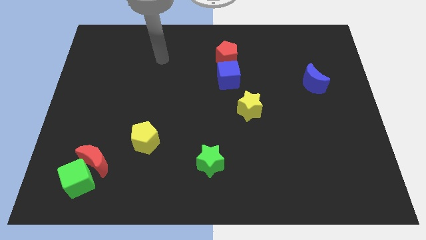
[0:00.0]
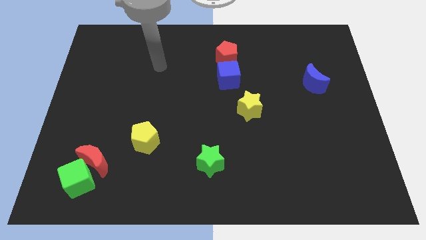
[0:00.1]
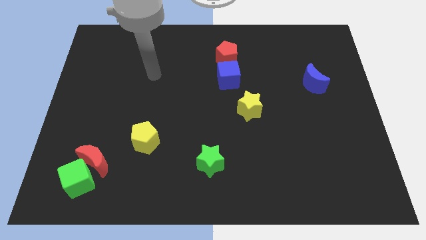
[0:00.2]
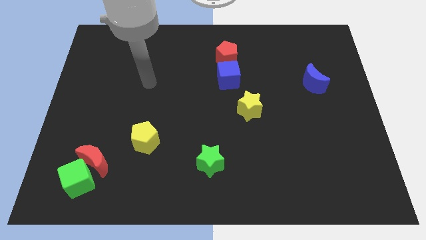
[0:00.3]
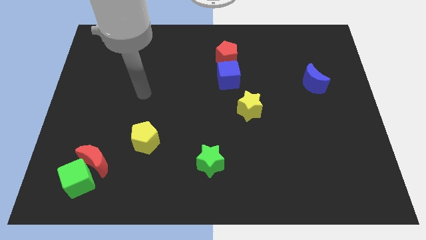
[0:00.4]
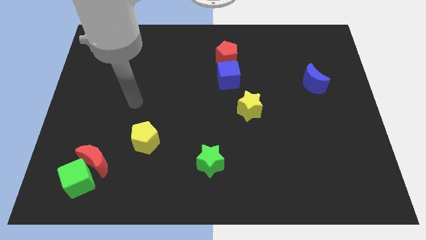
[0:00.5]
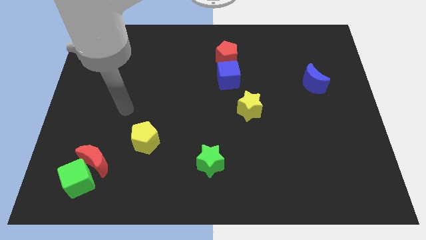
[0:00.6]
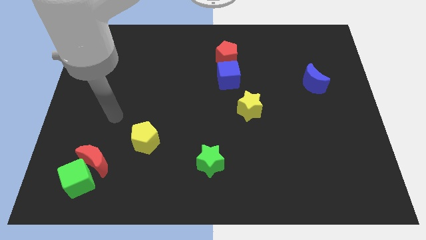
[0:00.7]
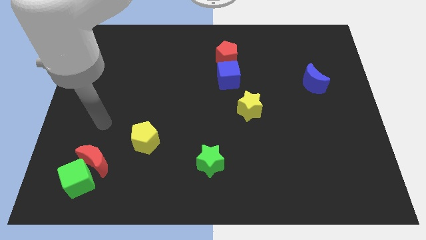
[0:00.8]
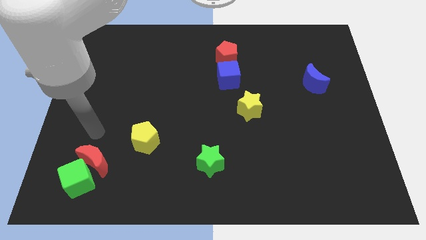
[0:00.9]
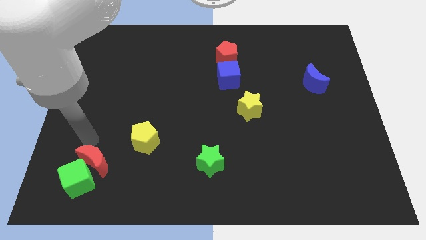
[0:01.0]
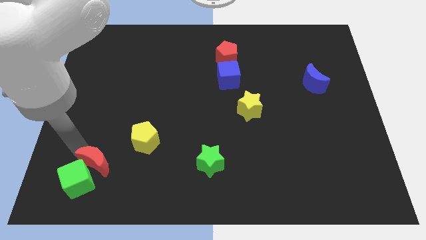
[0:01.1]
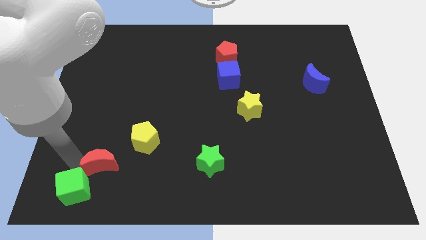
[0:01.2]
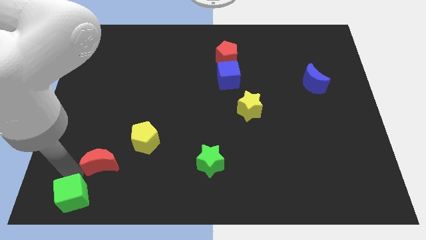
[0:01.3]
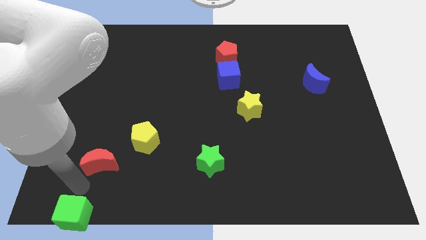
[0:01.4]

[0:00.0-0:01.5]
separate the red moon from the green cube

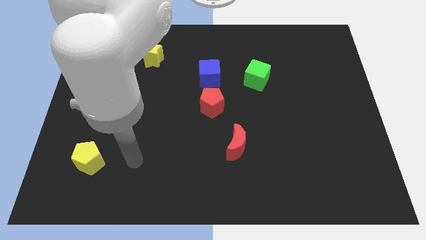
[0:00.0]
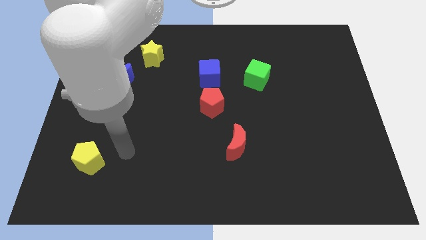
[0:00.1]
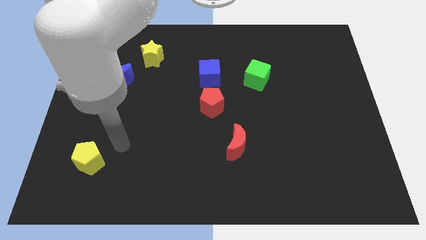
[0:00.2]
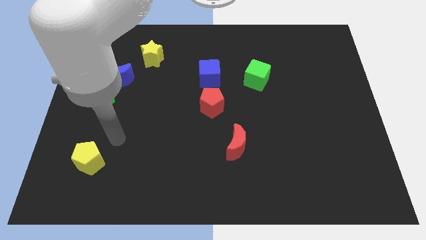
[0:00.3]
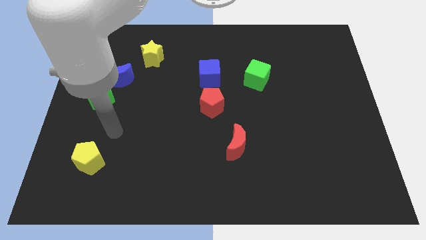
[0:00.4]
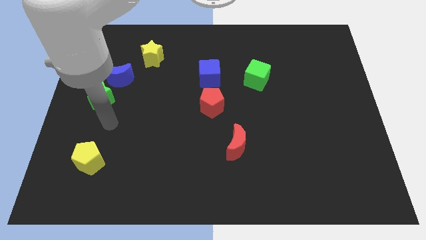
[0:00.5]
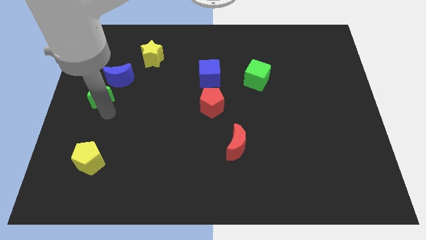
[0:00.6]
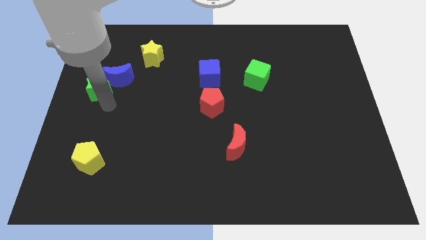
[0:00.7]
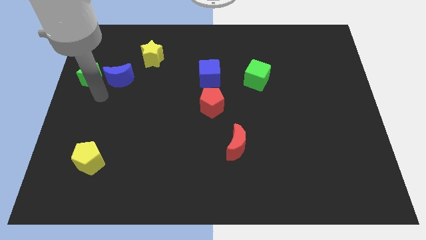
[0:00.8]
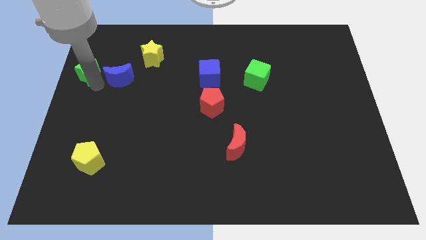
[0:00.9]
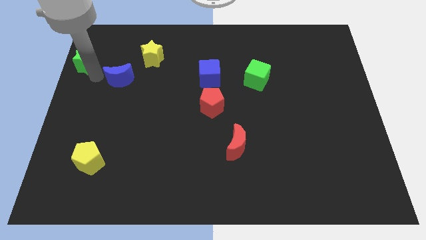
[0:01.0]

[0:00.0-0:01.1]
separate the blue moon from the green star

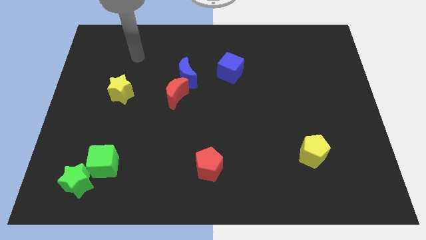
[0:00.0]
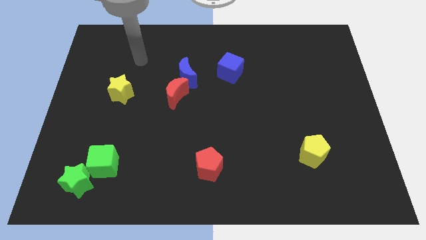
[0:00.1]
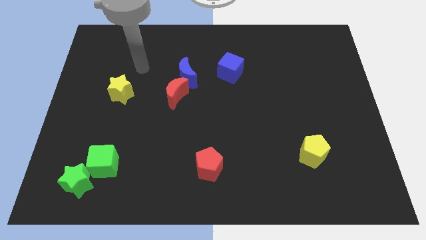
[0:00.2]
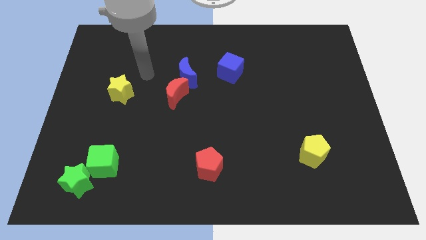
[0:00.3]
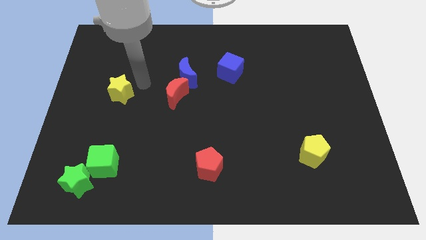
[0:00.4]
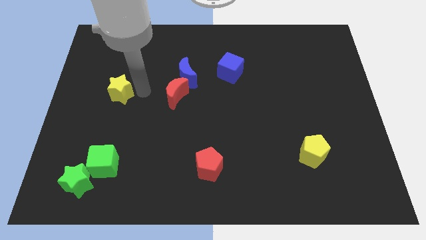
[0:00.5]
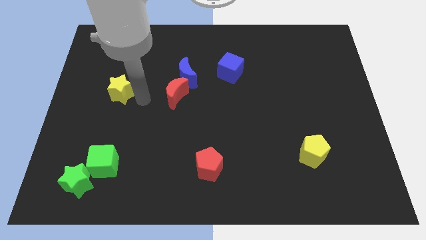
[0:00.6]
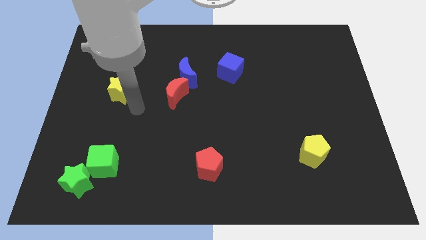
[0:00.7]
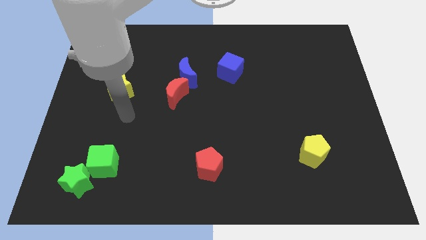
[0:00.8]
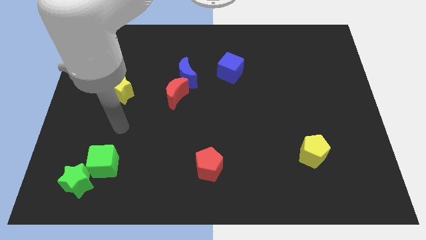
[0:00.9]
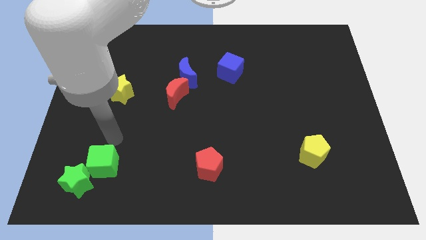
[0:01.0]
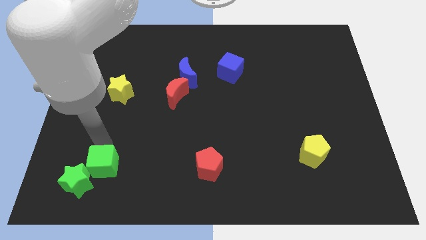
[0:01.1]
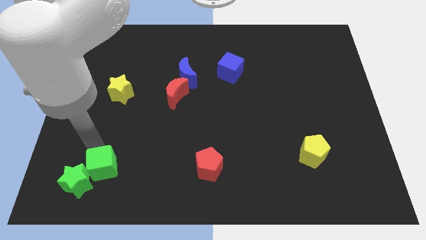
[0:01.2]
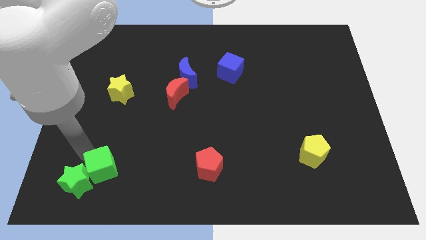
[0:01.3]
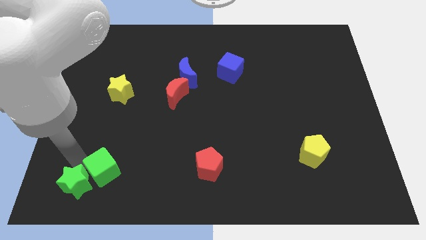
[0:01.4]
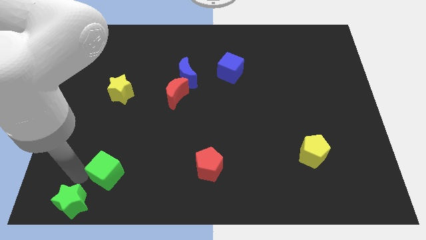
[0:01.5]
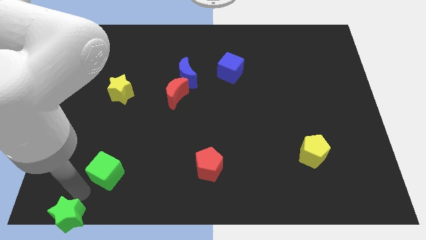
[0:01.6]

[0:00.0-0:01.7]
pull the green cube apart from the green star

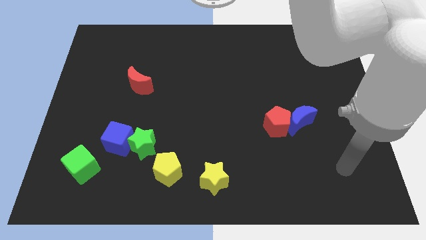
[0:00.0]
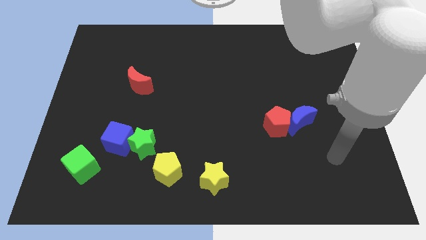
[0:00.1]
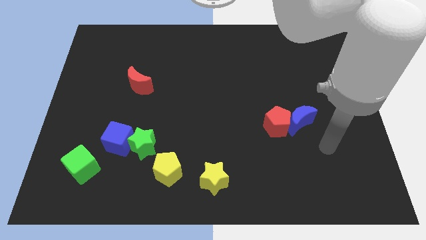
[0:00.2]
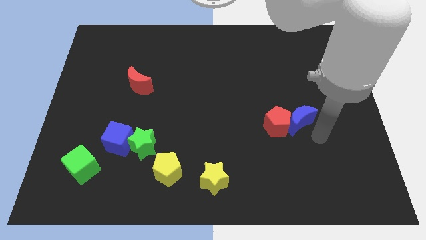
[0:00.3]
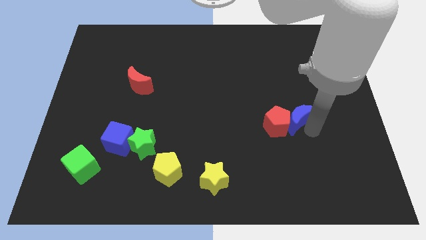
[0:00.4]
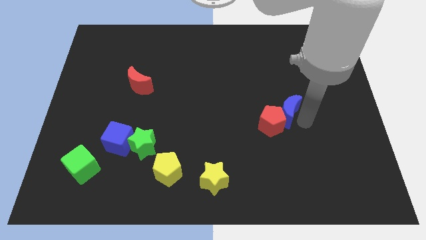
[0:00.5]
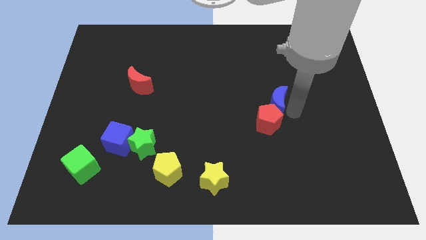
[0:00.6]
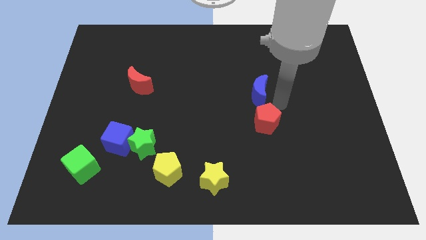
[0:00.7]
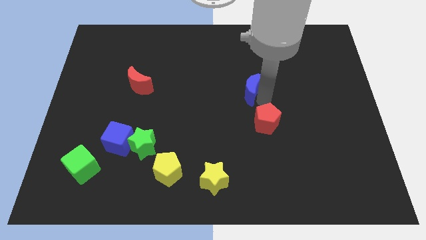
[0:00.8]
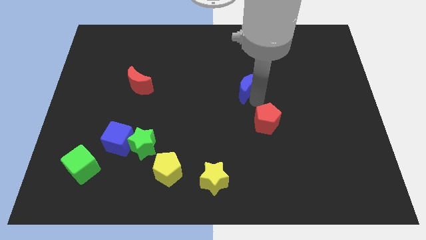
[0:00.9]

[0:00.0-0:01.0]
pull the red pentagon apart from the blue moon

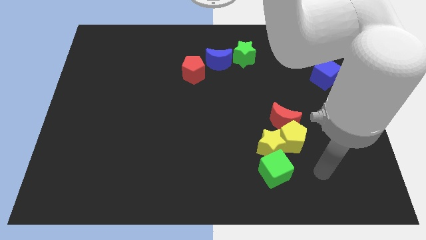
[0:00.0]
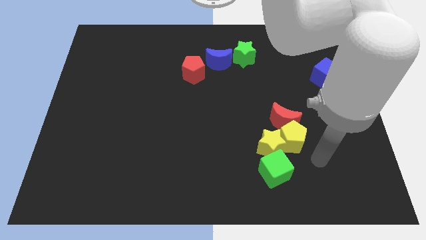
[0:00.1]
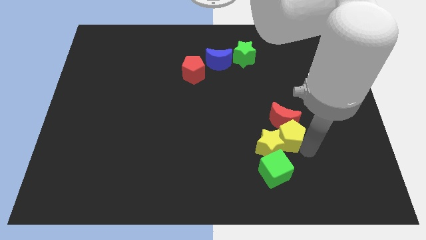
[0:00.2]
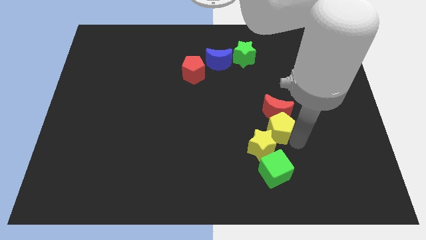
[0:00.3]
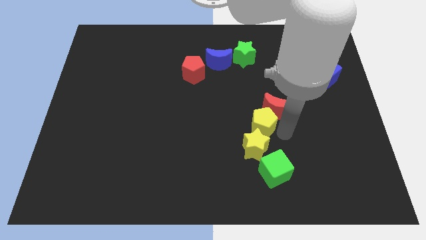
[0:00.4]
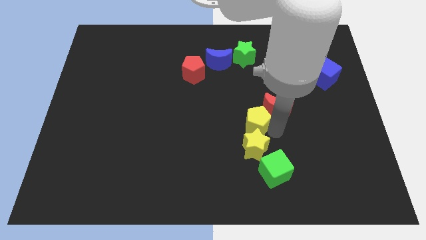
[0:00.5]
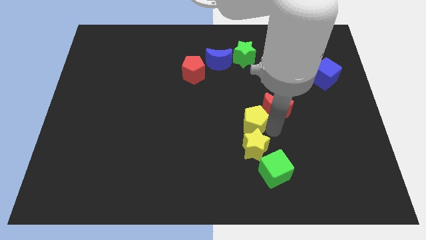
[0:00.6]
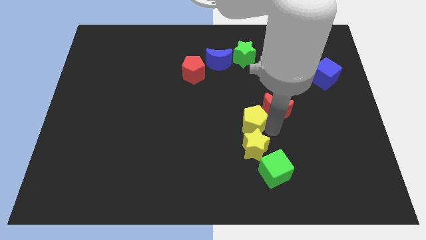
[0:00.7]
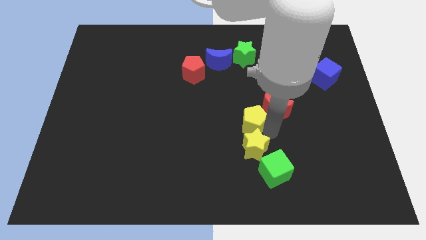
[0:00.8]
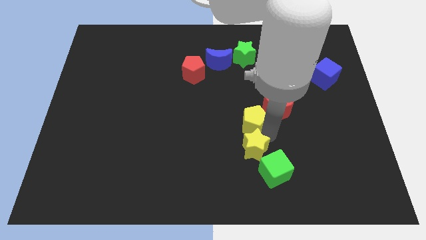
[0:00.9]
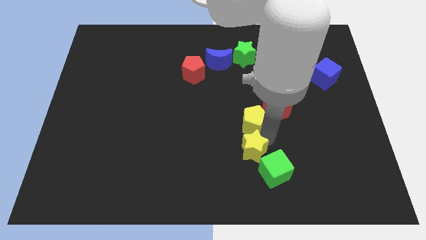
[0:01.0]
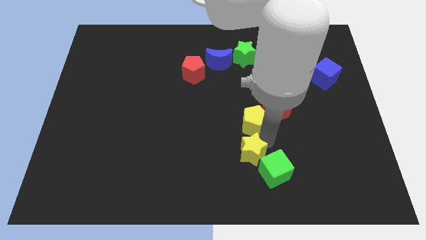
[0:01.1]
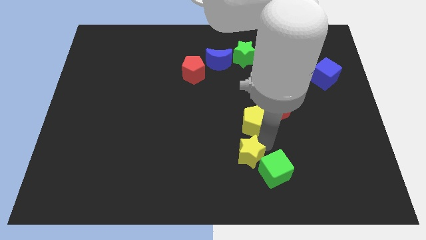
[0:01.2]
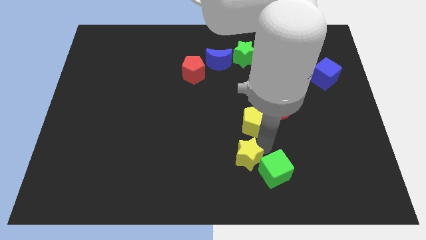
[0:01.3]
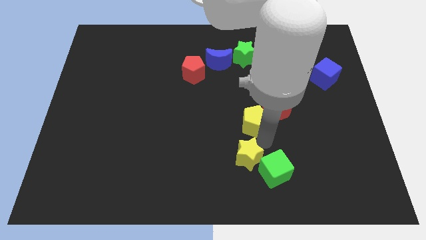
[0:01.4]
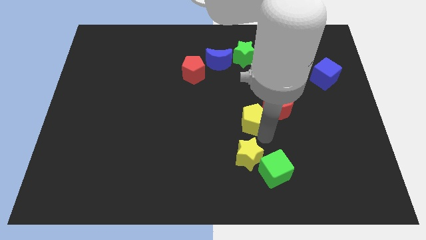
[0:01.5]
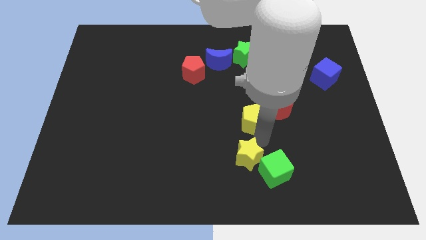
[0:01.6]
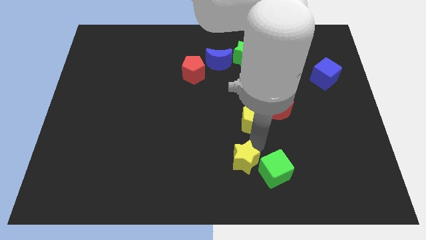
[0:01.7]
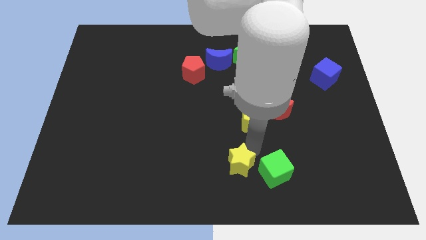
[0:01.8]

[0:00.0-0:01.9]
separate the yellow star from the group of blocks

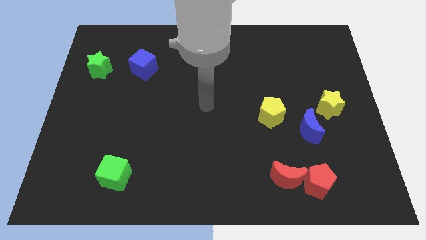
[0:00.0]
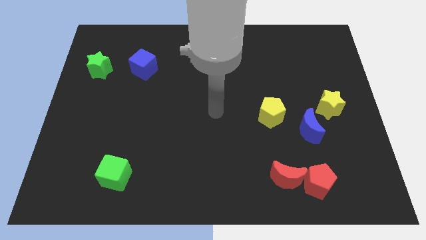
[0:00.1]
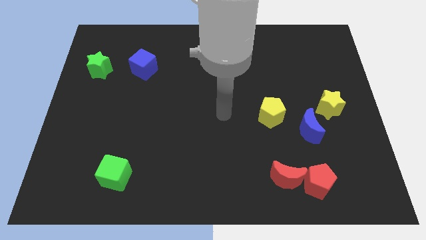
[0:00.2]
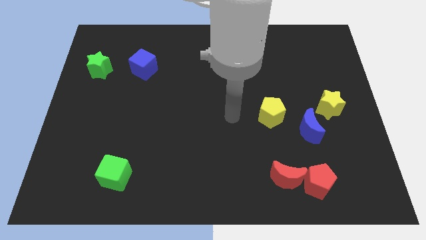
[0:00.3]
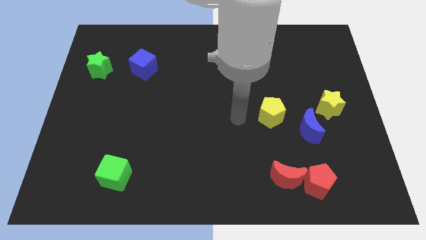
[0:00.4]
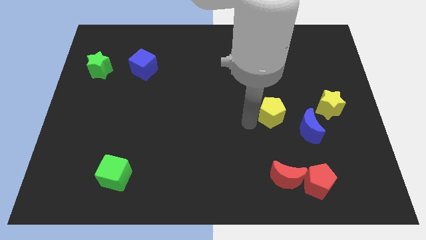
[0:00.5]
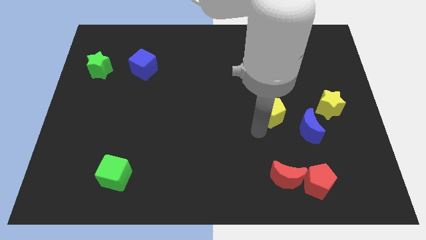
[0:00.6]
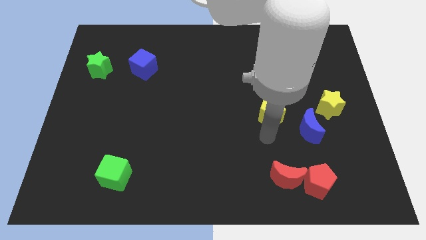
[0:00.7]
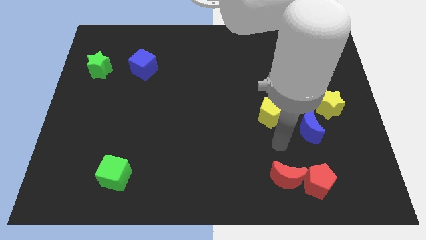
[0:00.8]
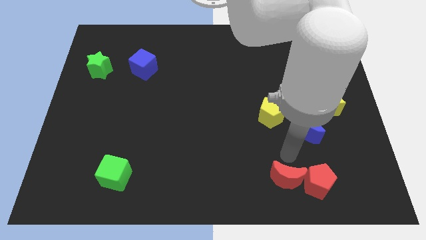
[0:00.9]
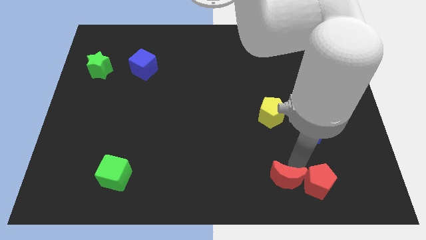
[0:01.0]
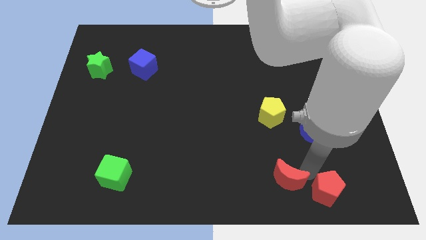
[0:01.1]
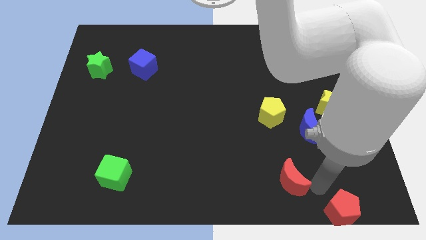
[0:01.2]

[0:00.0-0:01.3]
separate the red moon from the red pentagon

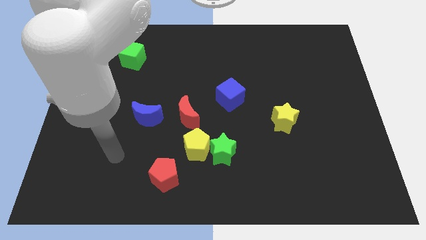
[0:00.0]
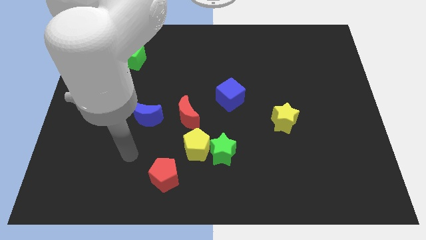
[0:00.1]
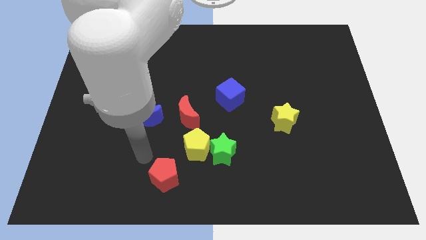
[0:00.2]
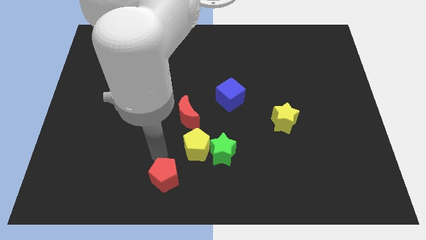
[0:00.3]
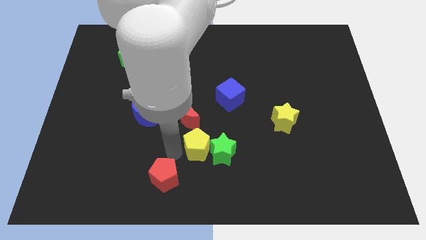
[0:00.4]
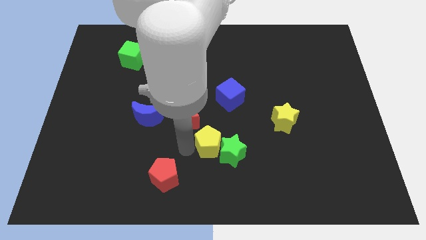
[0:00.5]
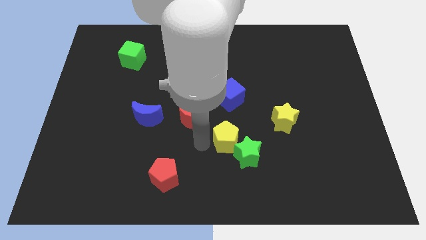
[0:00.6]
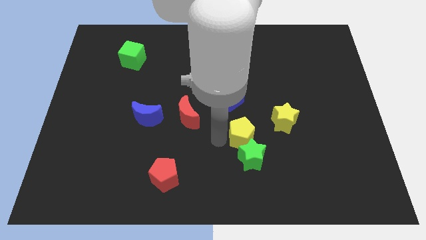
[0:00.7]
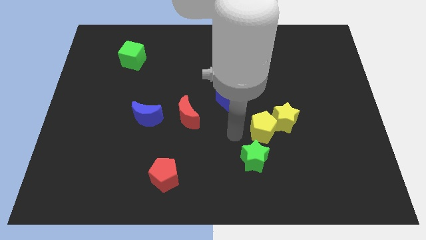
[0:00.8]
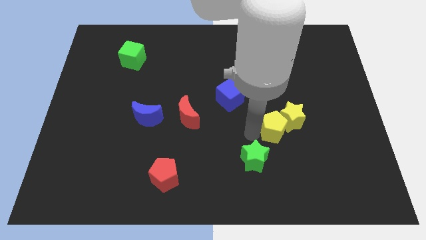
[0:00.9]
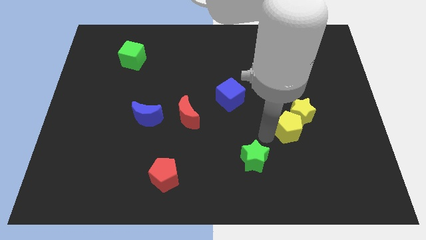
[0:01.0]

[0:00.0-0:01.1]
separate the green star from the yellow pentagon
